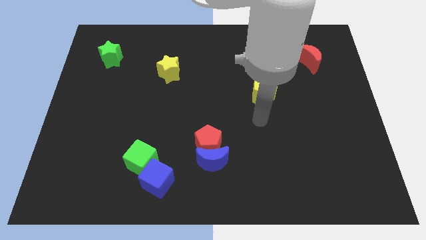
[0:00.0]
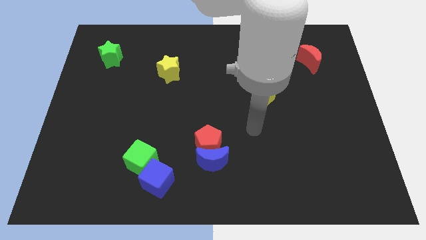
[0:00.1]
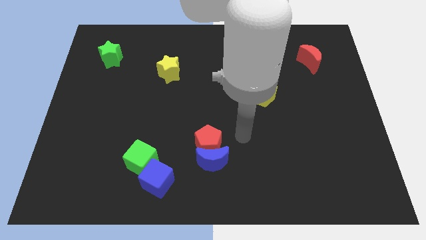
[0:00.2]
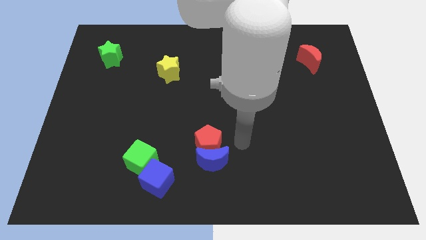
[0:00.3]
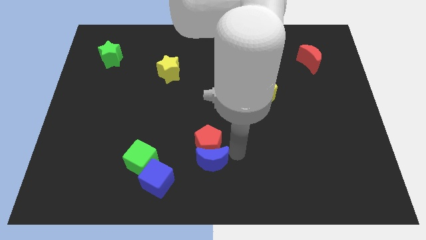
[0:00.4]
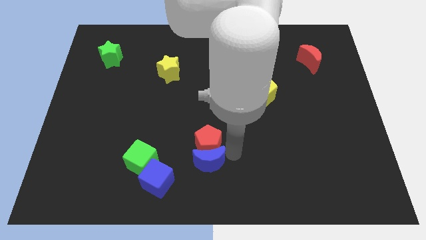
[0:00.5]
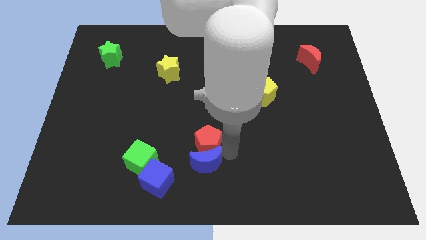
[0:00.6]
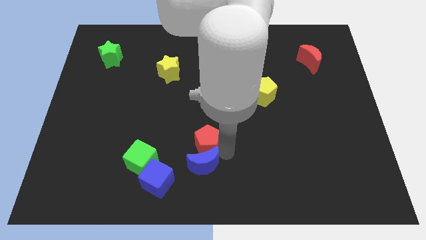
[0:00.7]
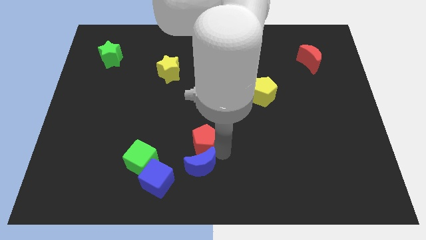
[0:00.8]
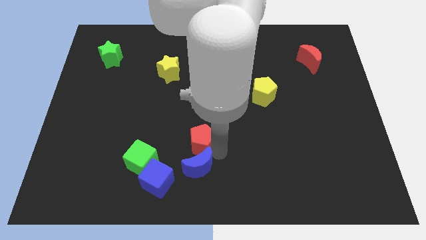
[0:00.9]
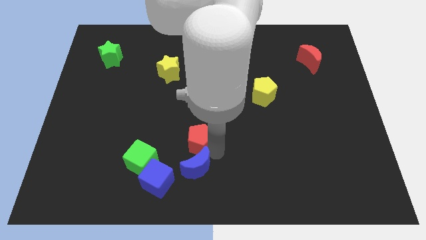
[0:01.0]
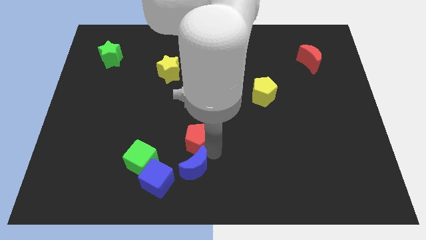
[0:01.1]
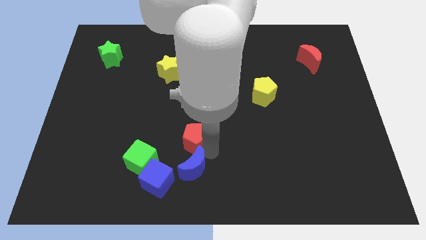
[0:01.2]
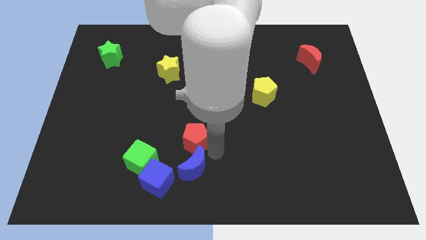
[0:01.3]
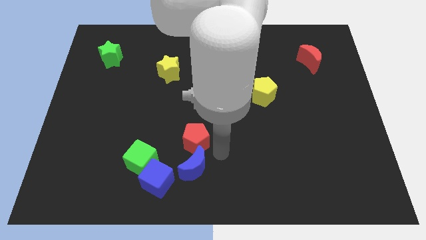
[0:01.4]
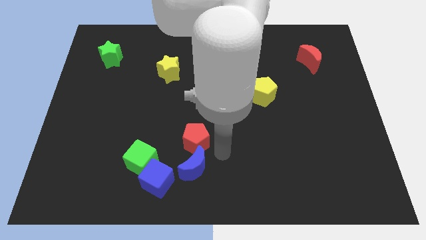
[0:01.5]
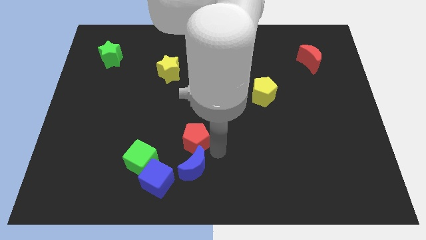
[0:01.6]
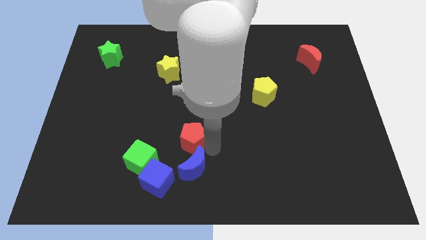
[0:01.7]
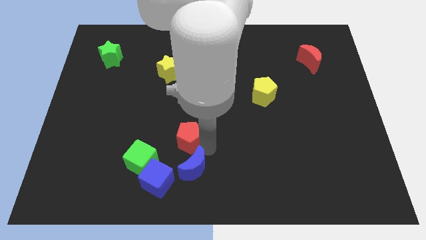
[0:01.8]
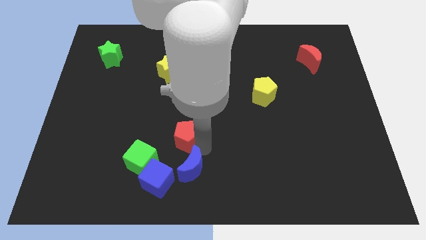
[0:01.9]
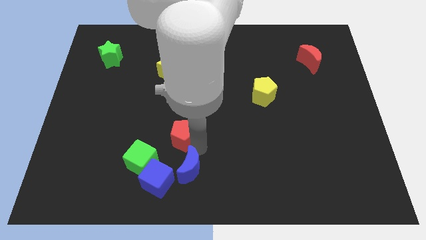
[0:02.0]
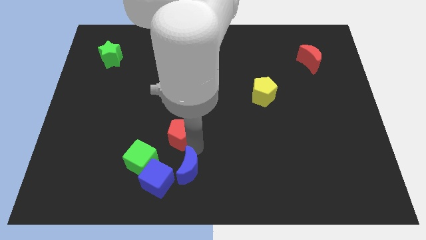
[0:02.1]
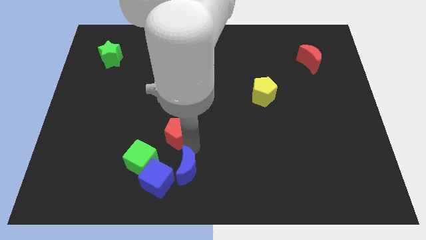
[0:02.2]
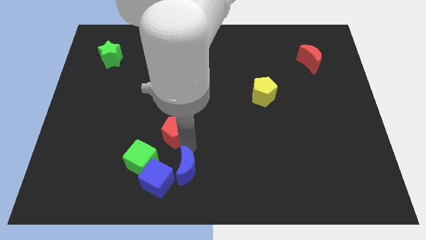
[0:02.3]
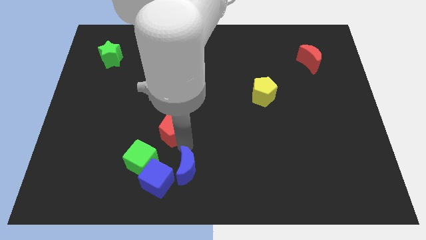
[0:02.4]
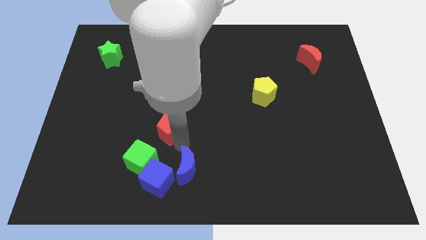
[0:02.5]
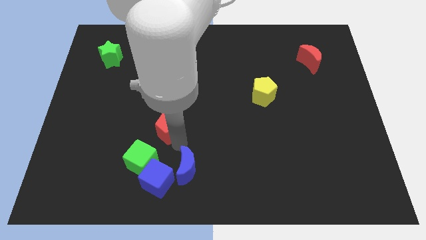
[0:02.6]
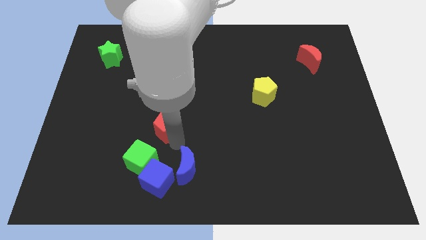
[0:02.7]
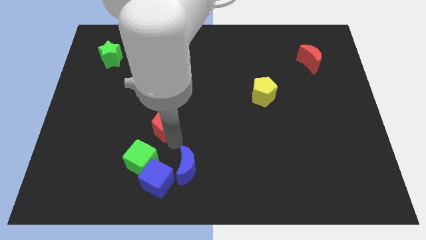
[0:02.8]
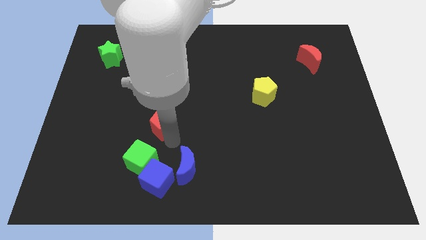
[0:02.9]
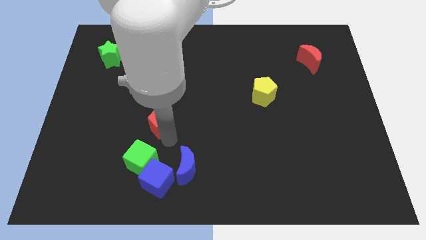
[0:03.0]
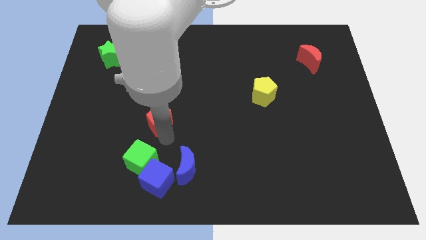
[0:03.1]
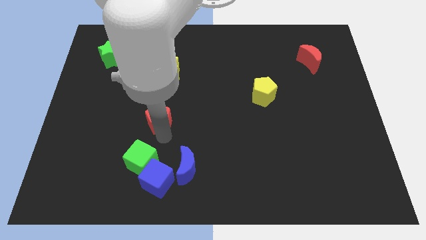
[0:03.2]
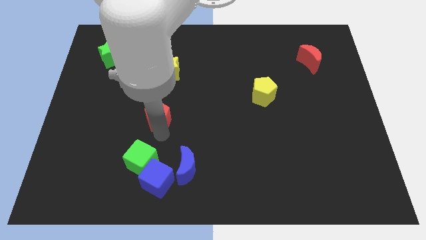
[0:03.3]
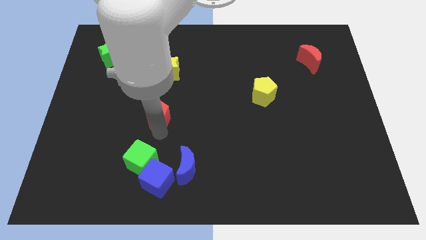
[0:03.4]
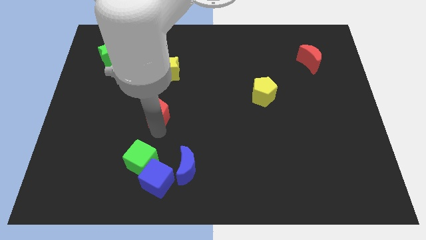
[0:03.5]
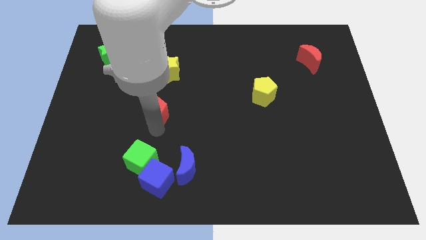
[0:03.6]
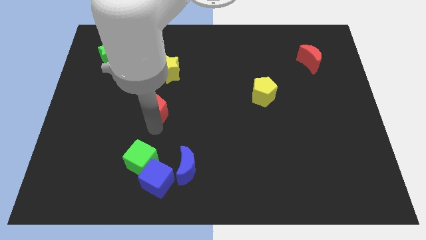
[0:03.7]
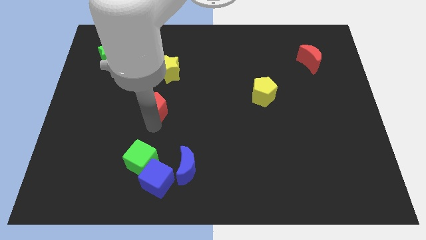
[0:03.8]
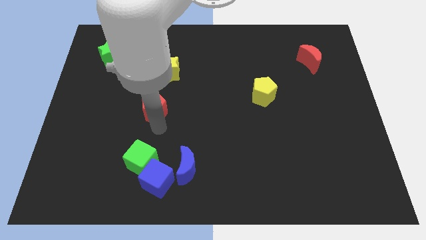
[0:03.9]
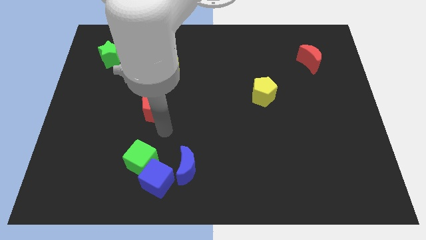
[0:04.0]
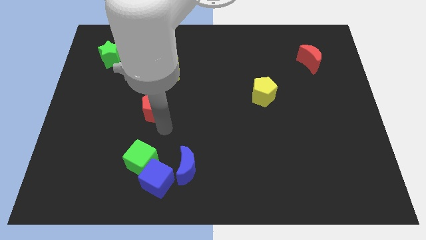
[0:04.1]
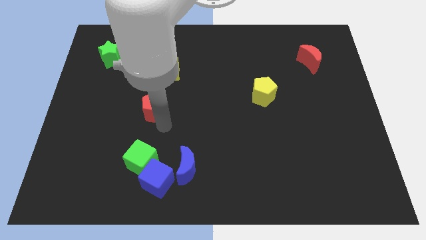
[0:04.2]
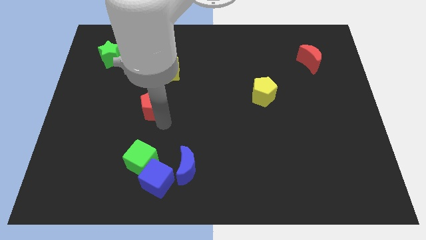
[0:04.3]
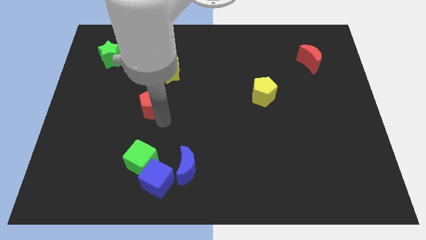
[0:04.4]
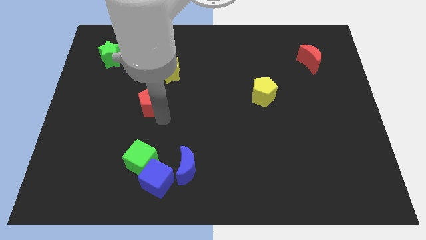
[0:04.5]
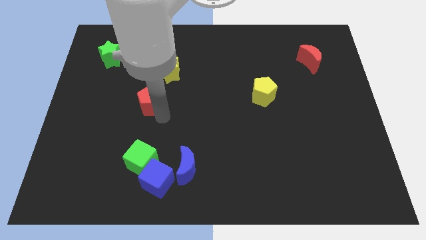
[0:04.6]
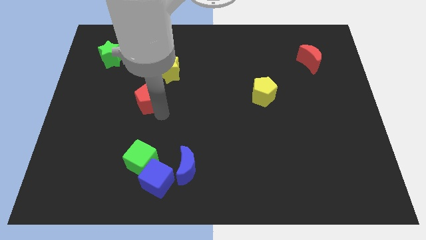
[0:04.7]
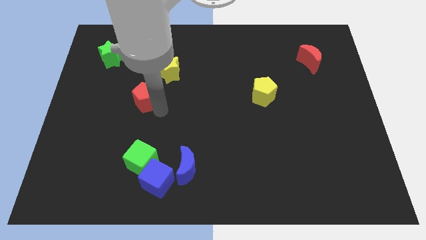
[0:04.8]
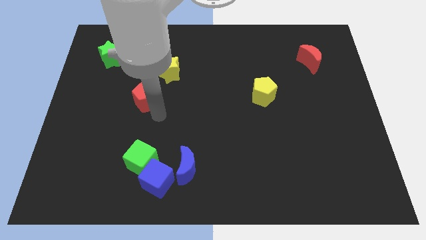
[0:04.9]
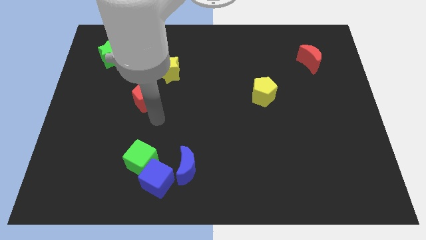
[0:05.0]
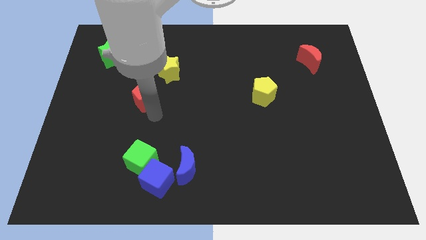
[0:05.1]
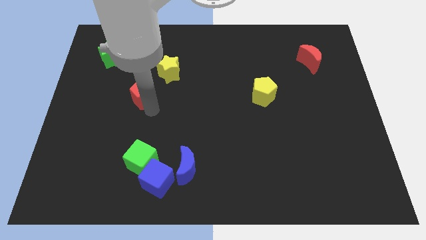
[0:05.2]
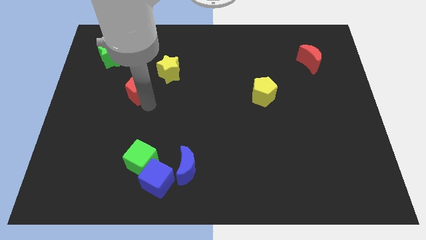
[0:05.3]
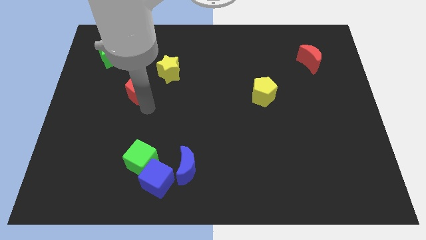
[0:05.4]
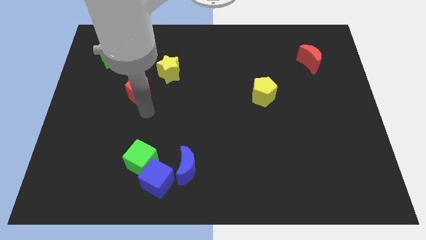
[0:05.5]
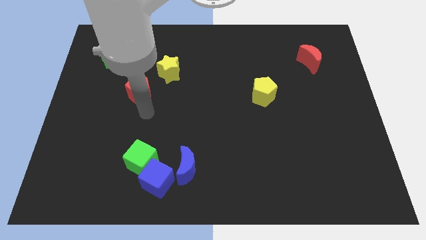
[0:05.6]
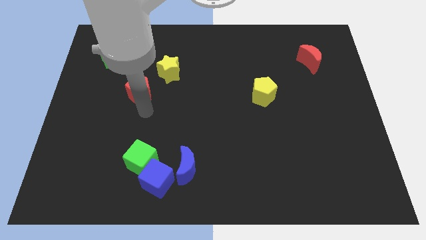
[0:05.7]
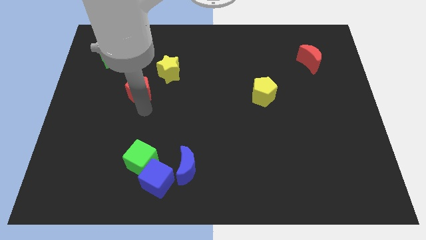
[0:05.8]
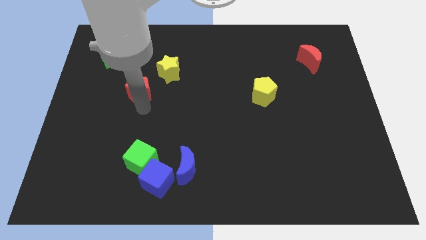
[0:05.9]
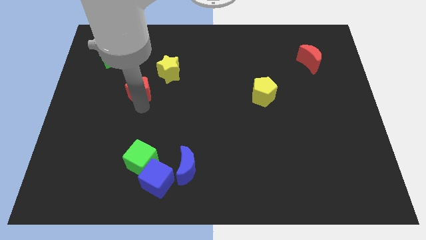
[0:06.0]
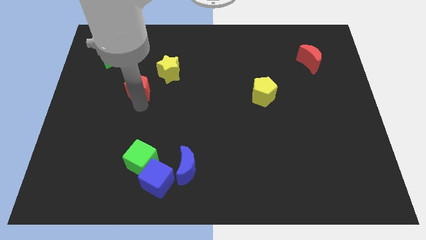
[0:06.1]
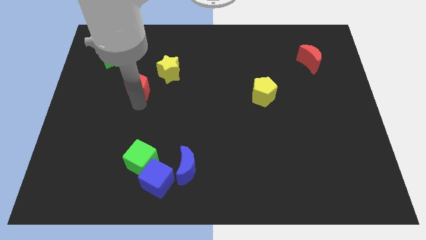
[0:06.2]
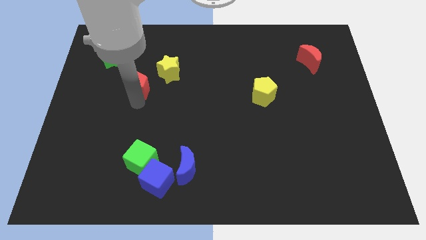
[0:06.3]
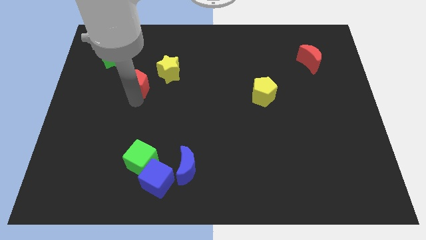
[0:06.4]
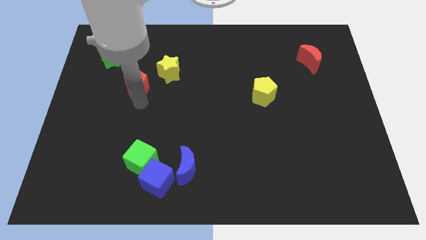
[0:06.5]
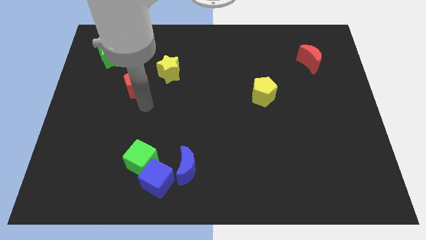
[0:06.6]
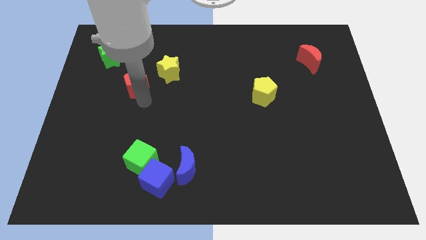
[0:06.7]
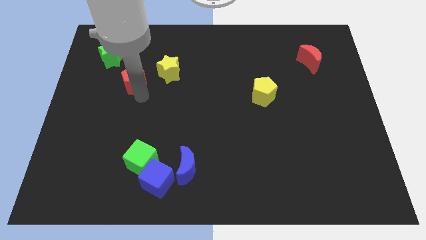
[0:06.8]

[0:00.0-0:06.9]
move the red pentagon to the left of the yellow star

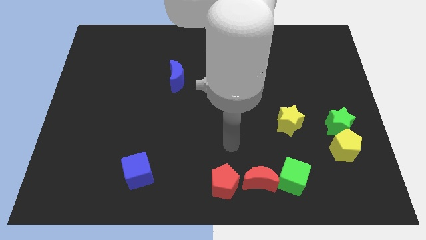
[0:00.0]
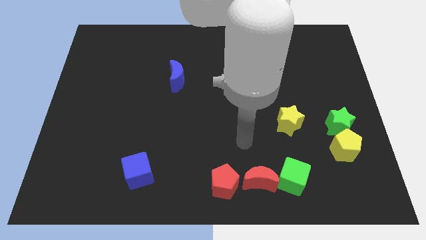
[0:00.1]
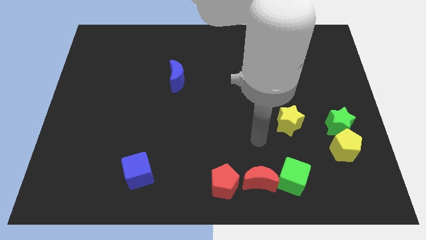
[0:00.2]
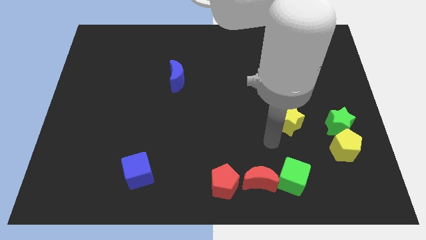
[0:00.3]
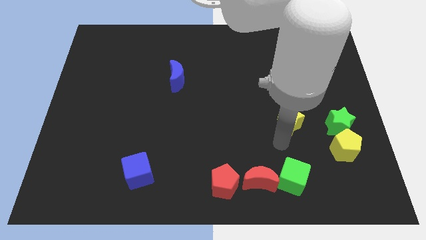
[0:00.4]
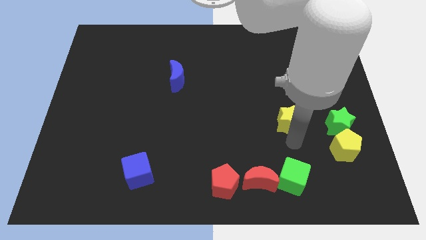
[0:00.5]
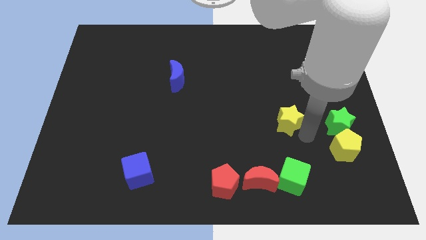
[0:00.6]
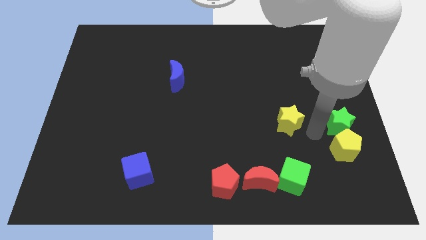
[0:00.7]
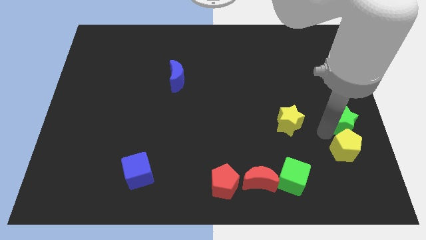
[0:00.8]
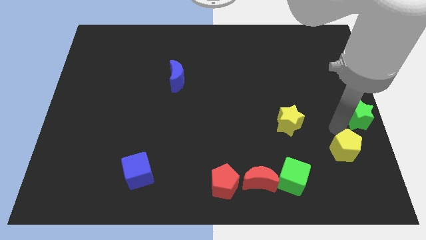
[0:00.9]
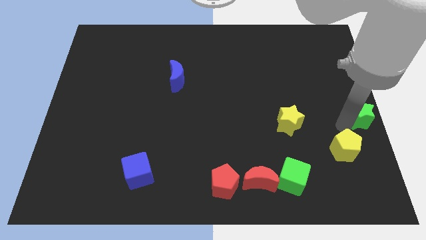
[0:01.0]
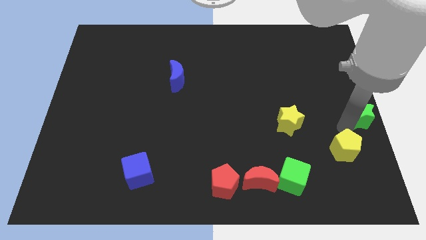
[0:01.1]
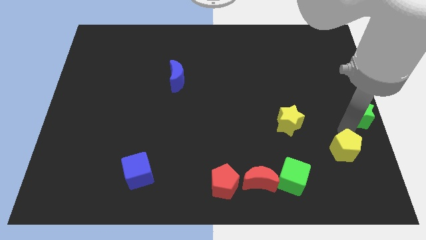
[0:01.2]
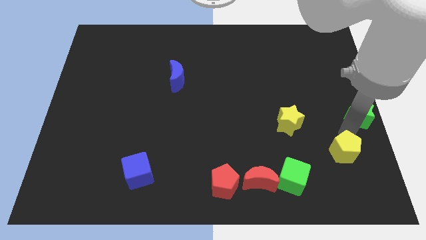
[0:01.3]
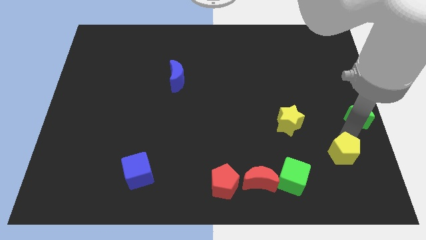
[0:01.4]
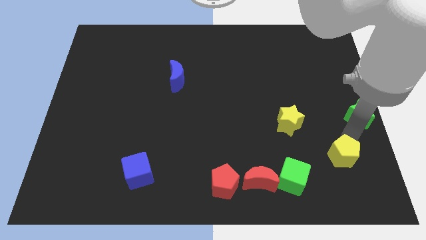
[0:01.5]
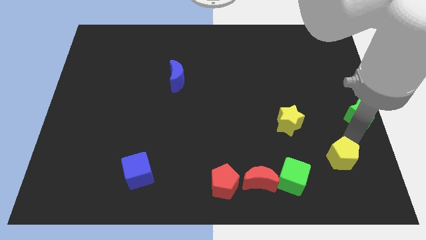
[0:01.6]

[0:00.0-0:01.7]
put the yellow pentagon to the right side of the green cube
